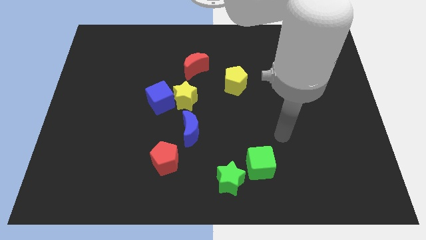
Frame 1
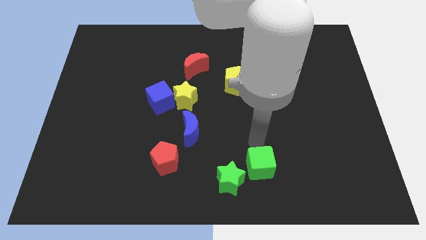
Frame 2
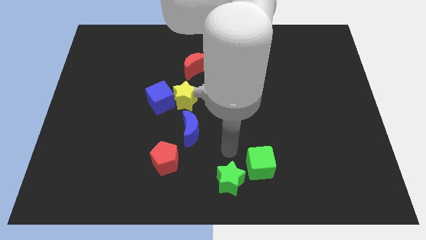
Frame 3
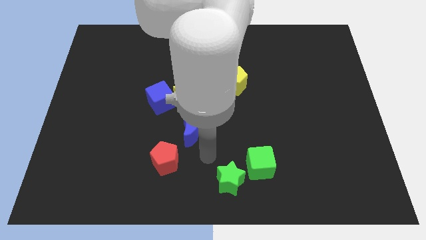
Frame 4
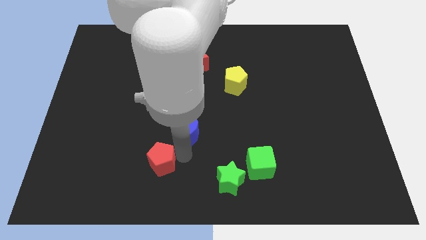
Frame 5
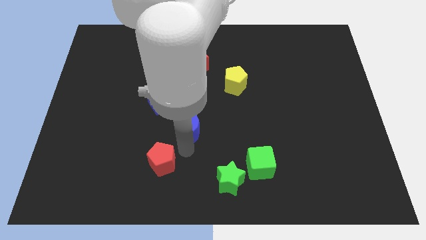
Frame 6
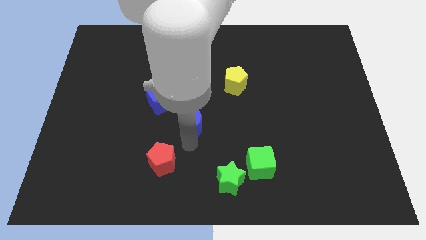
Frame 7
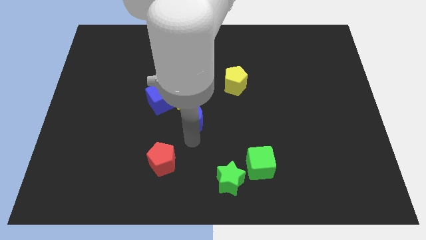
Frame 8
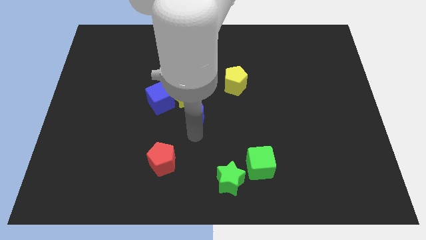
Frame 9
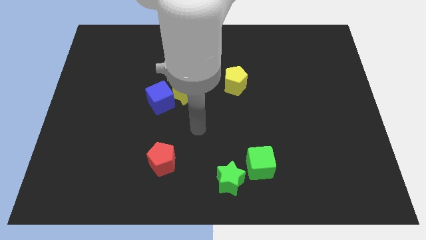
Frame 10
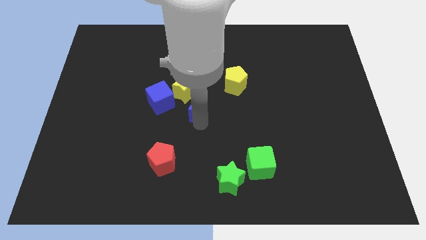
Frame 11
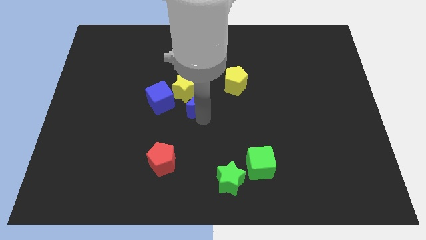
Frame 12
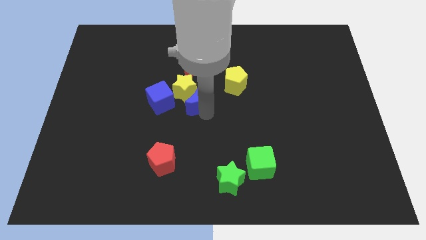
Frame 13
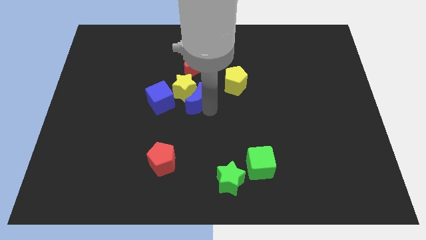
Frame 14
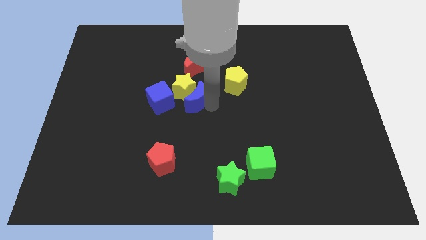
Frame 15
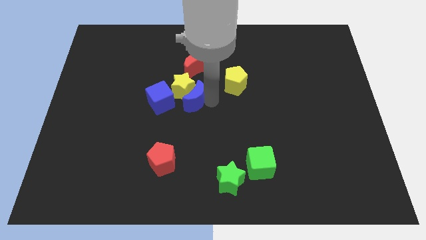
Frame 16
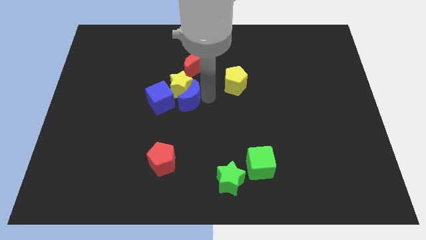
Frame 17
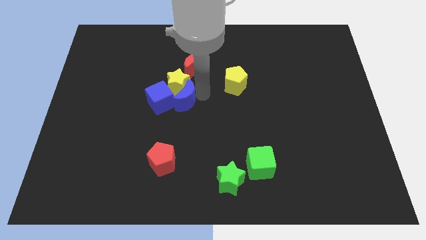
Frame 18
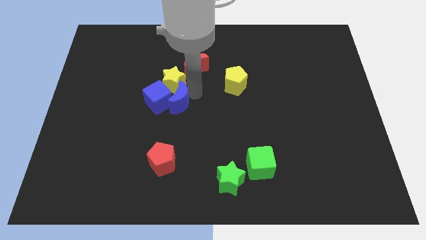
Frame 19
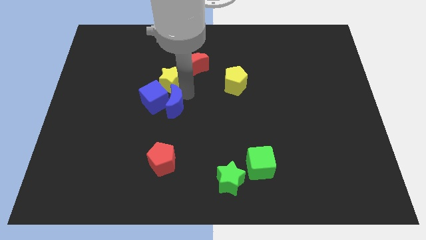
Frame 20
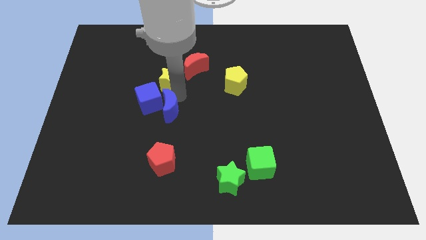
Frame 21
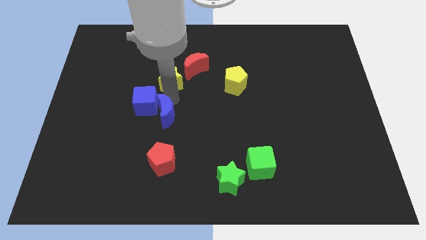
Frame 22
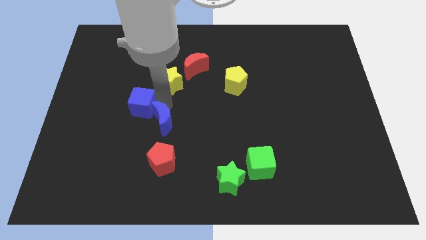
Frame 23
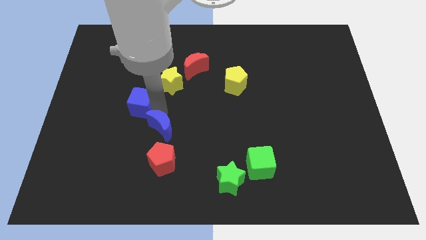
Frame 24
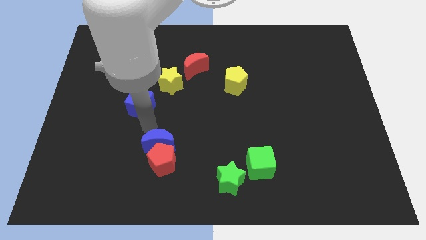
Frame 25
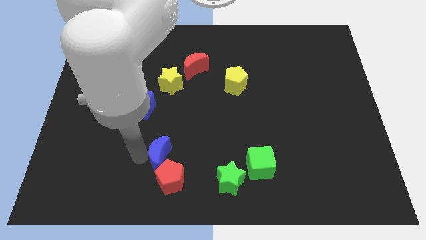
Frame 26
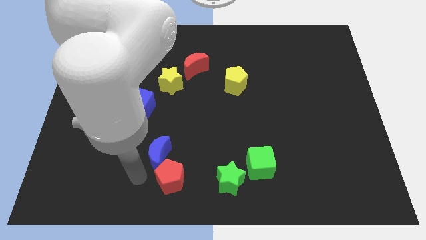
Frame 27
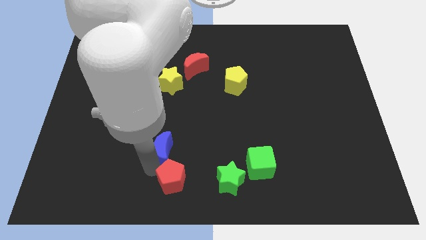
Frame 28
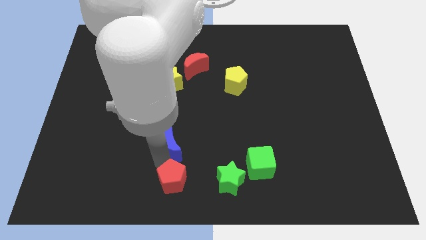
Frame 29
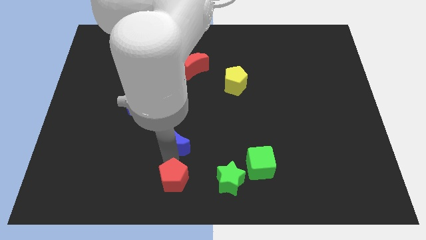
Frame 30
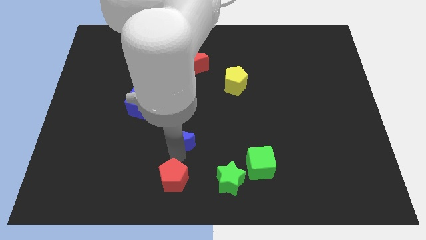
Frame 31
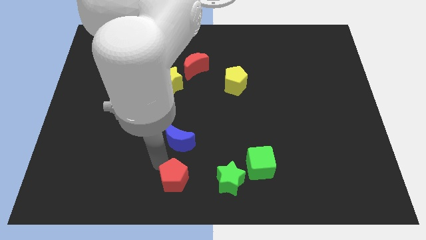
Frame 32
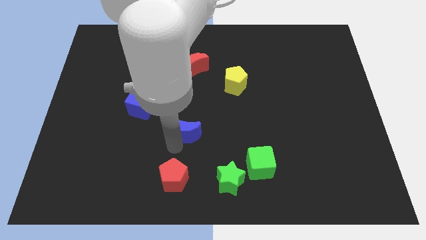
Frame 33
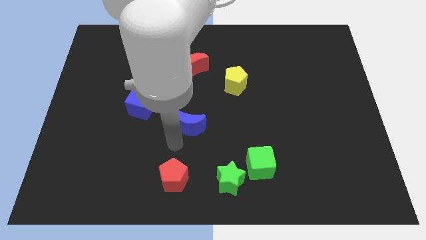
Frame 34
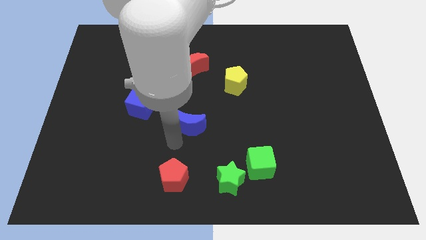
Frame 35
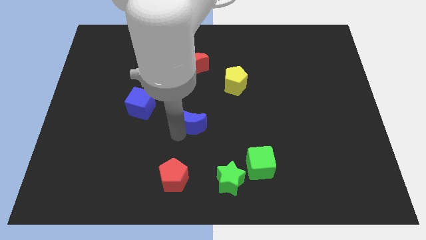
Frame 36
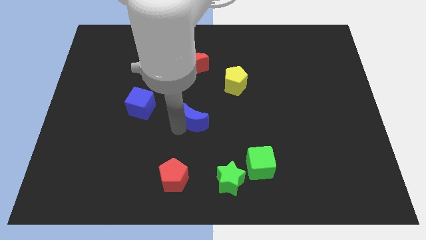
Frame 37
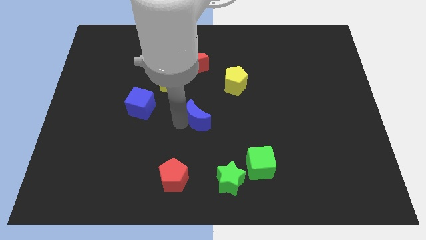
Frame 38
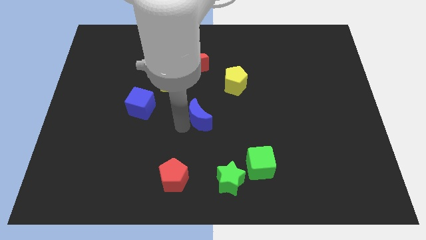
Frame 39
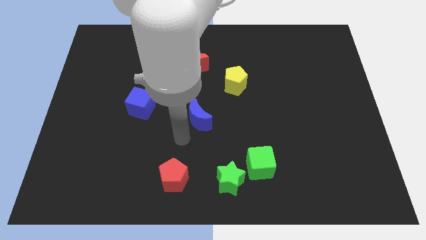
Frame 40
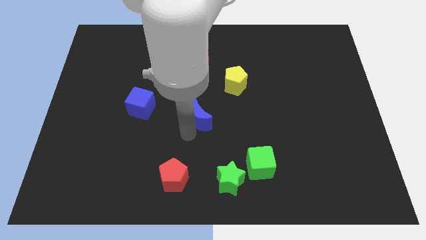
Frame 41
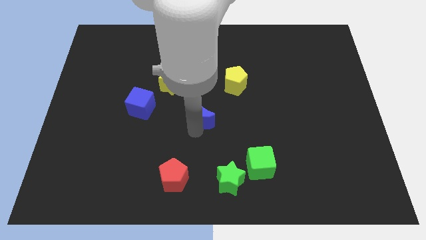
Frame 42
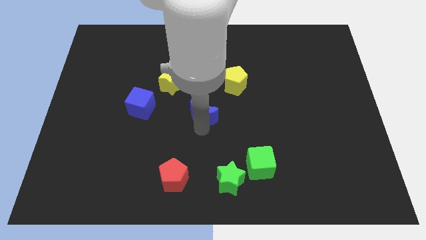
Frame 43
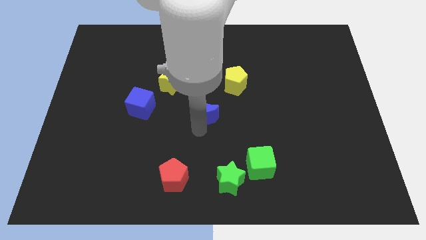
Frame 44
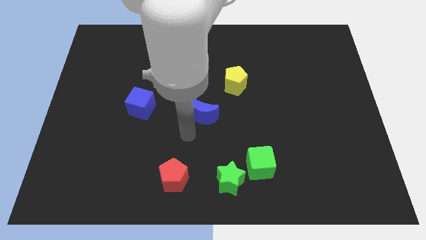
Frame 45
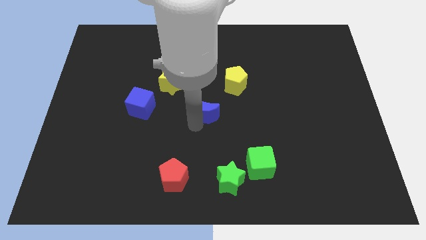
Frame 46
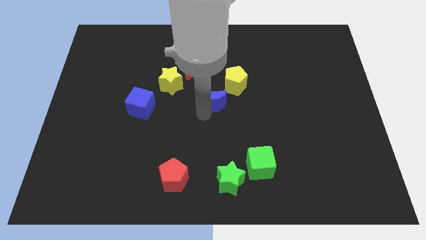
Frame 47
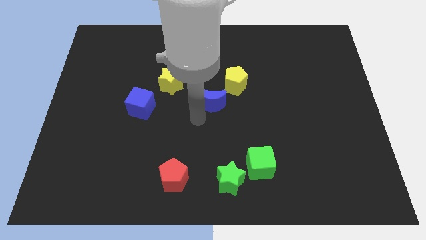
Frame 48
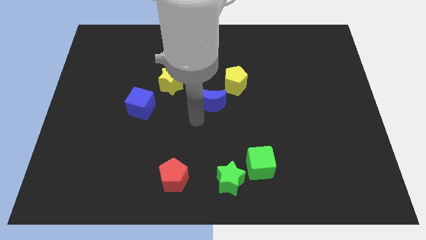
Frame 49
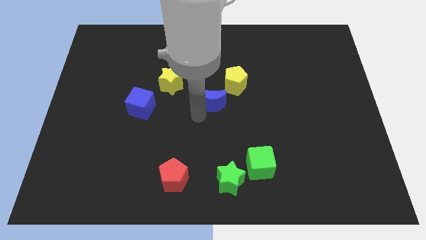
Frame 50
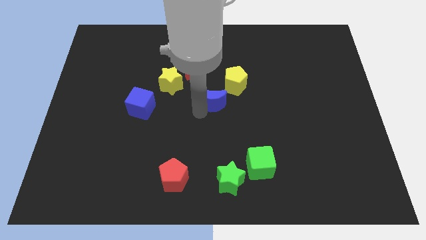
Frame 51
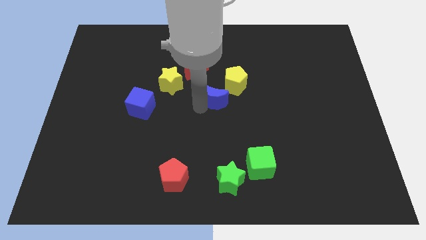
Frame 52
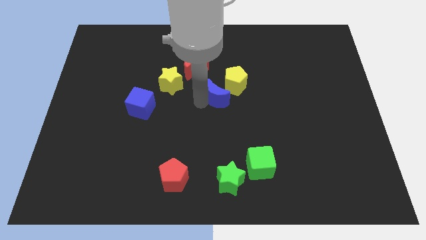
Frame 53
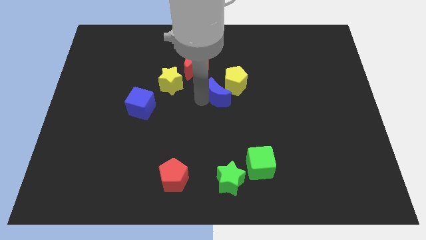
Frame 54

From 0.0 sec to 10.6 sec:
move the blue moon close to the yellow pentagon
